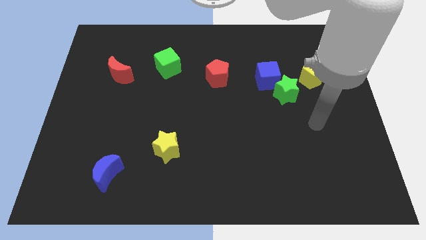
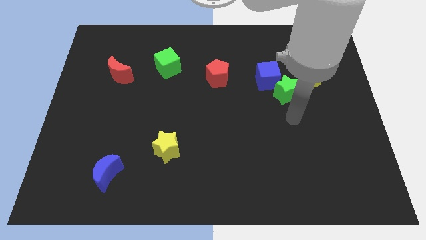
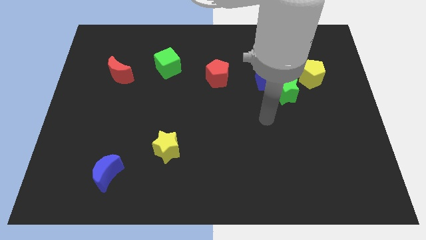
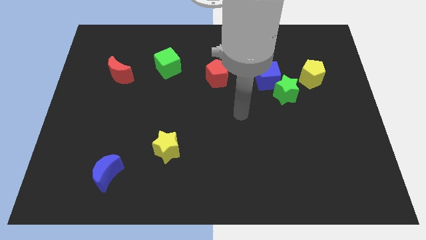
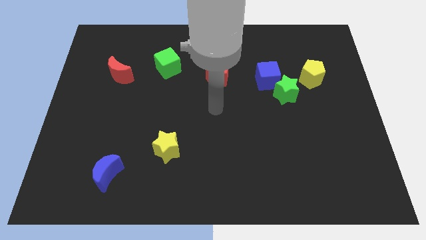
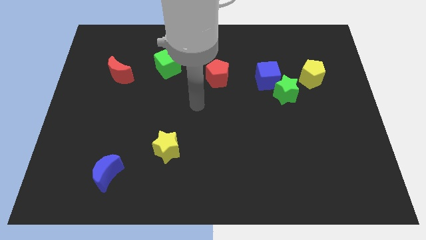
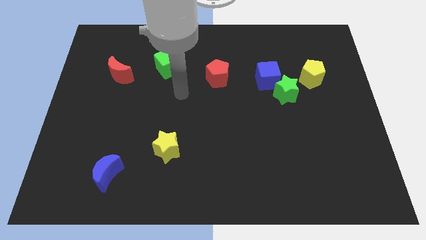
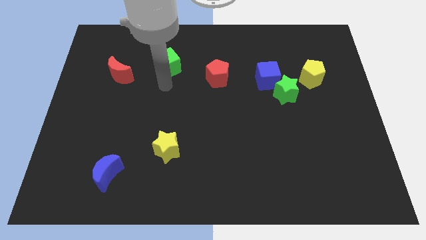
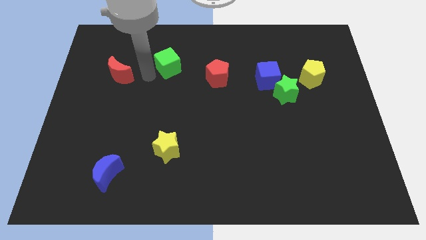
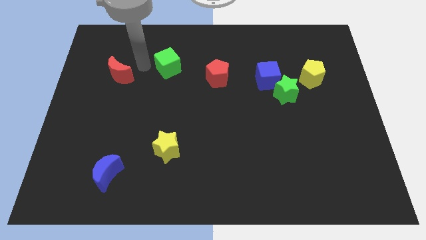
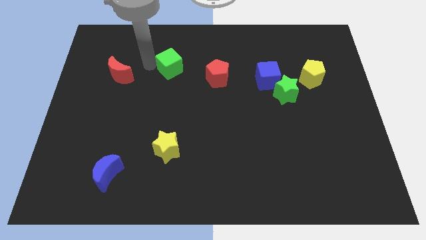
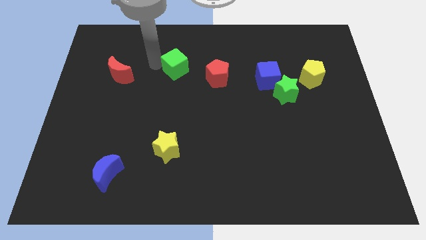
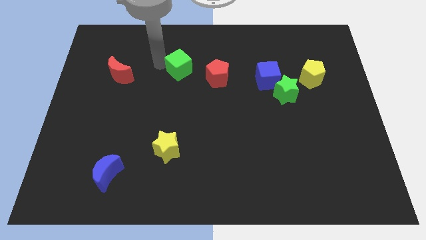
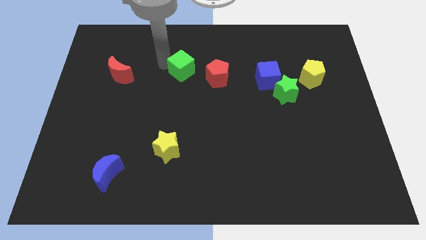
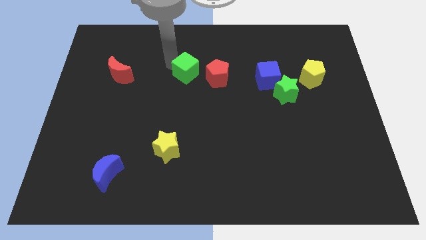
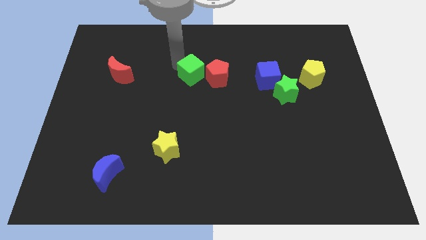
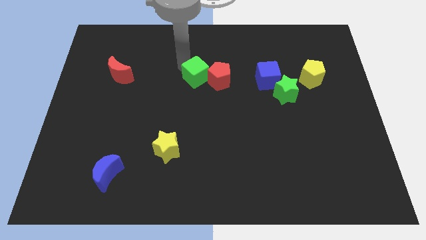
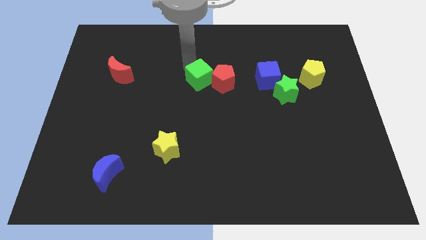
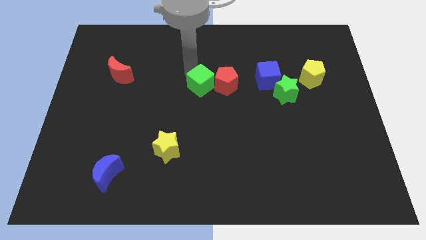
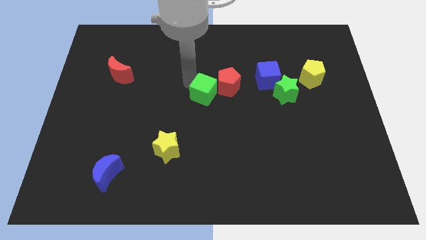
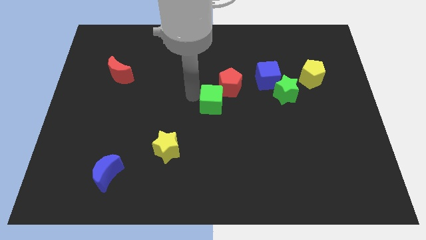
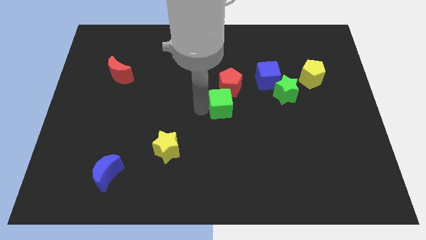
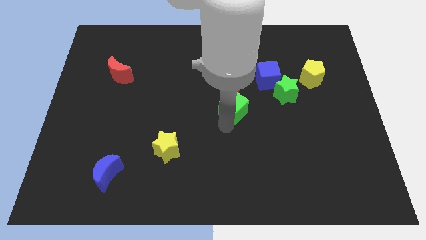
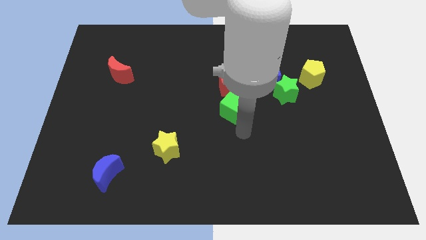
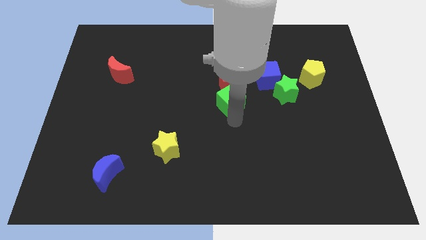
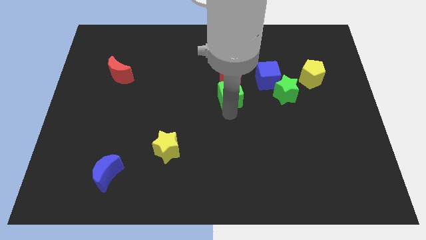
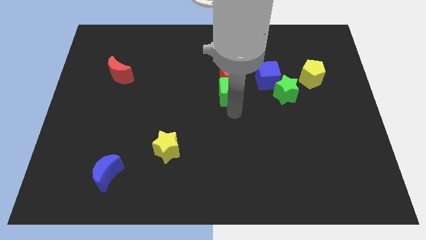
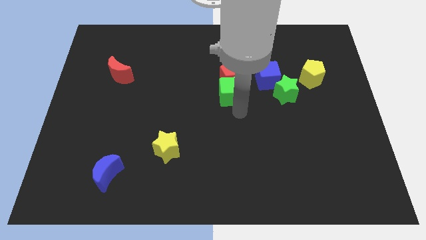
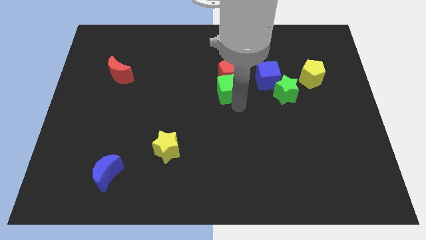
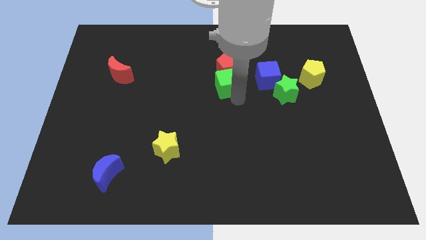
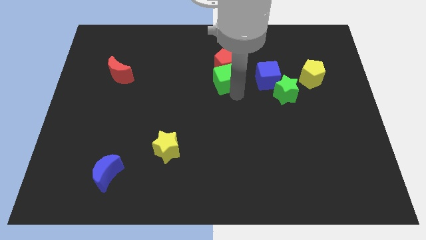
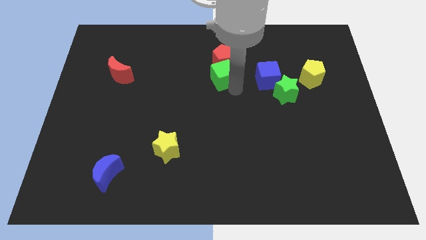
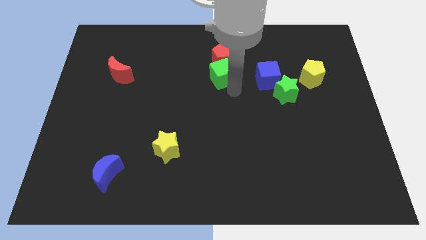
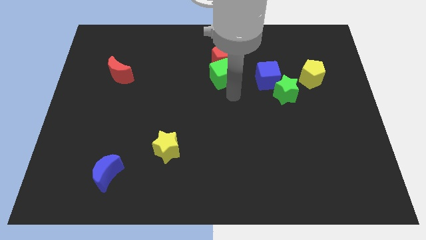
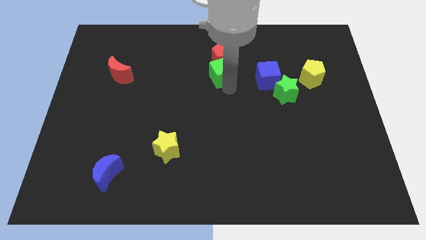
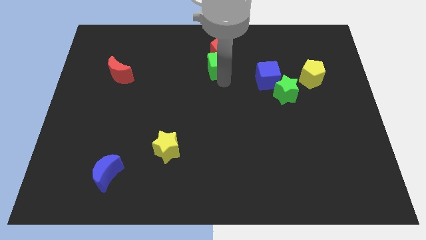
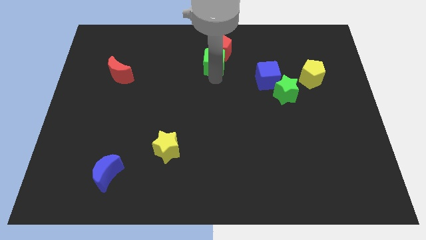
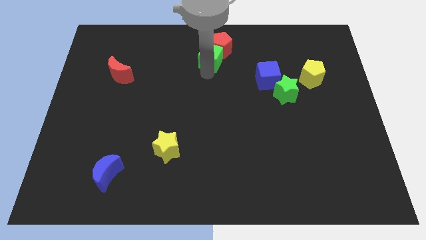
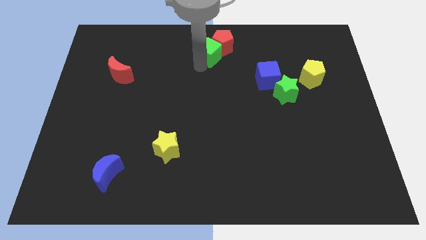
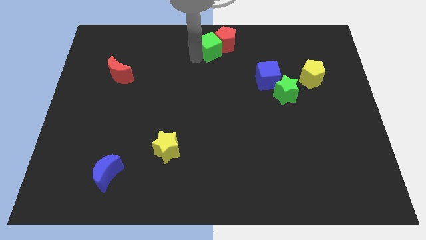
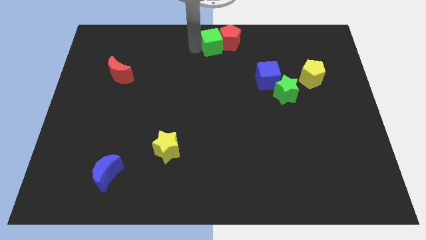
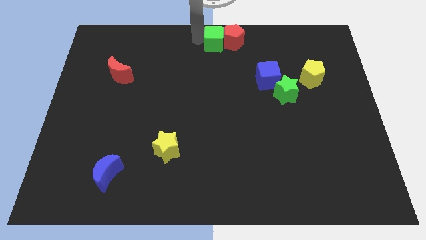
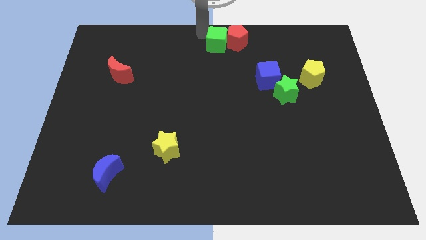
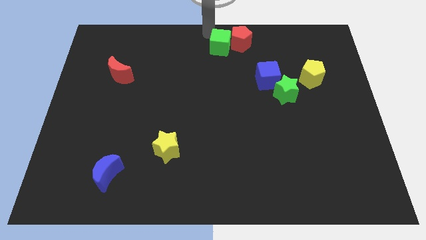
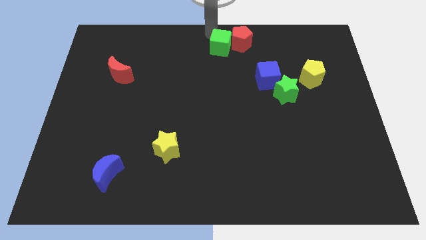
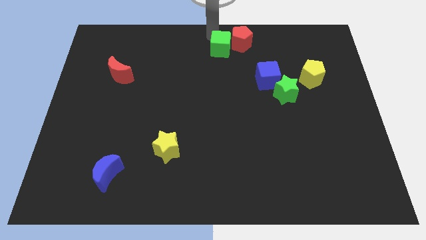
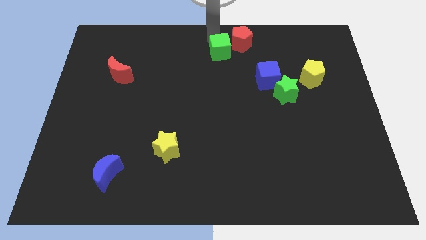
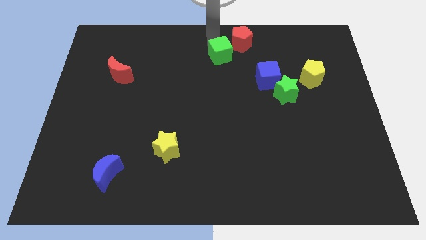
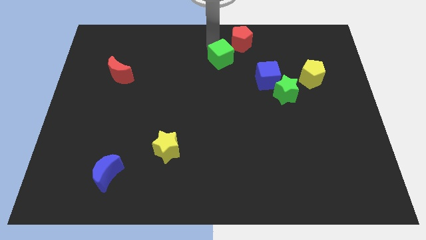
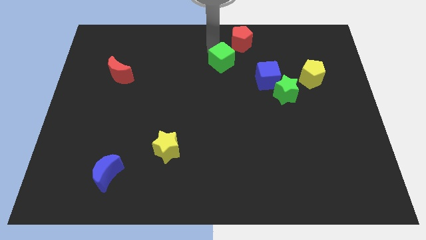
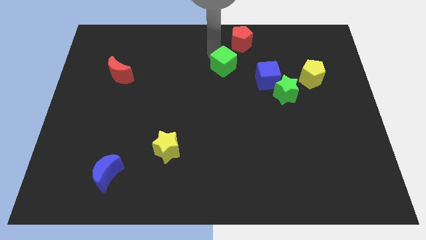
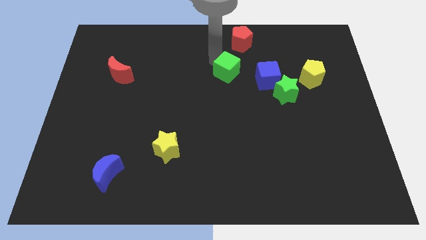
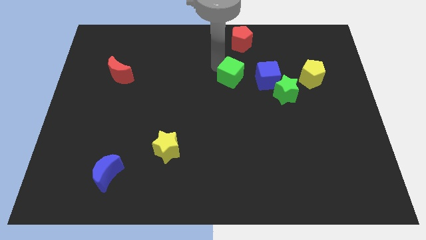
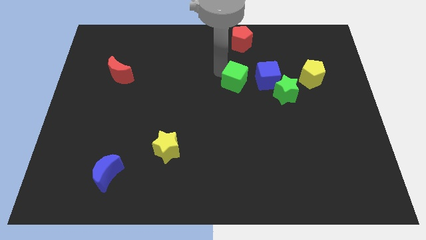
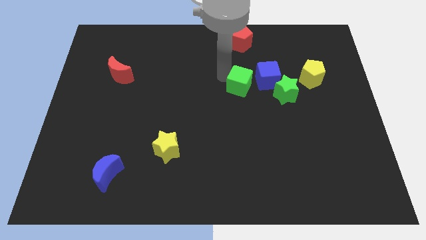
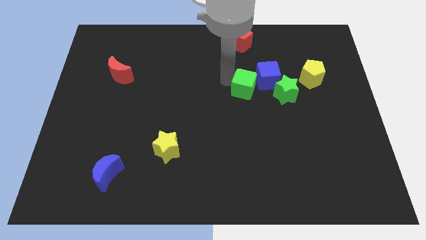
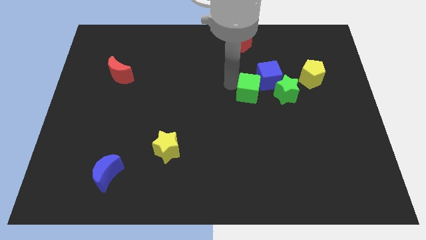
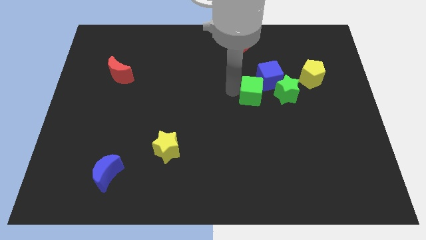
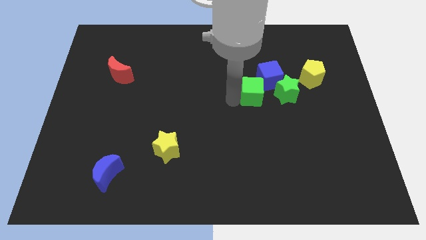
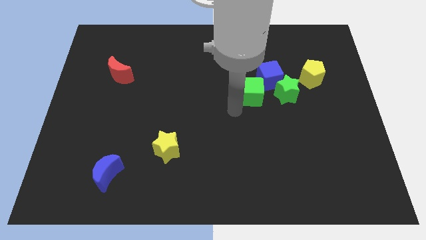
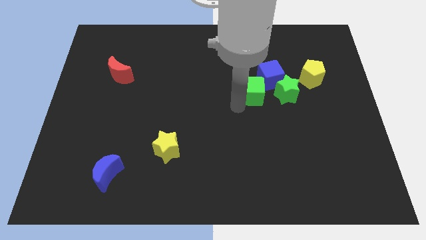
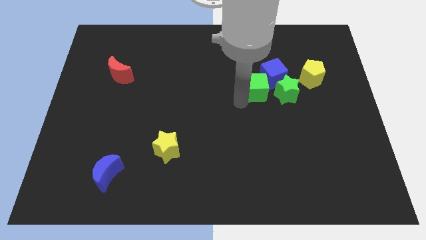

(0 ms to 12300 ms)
slide the green cube close to the blue cube

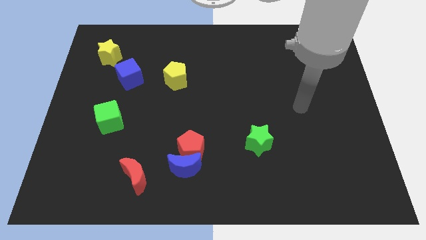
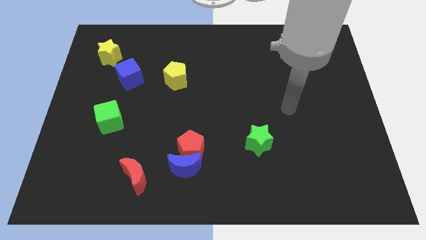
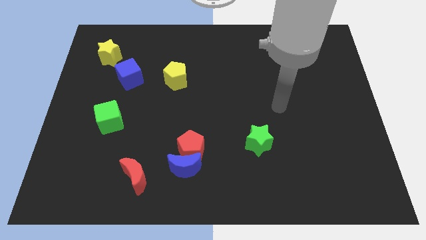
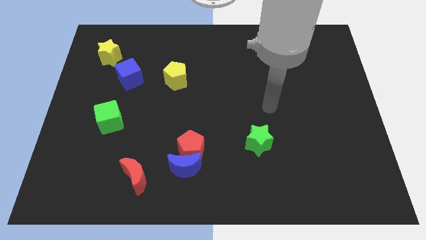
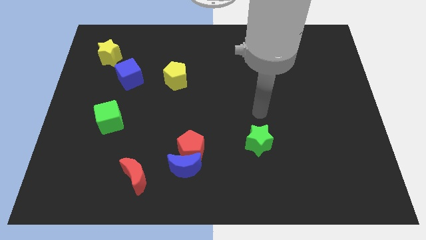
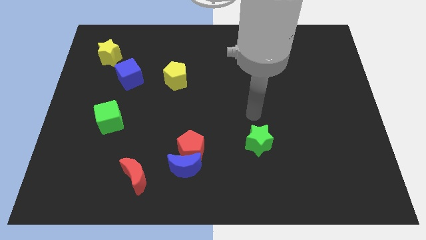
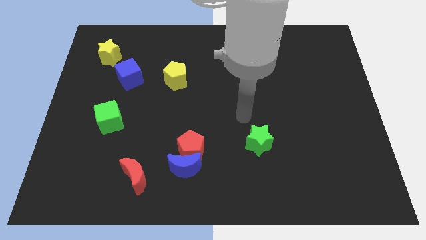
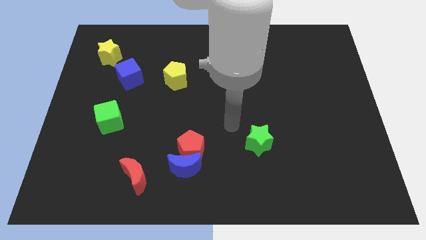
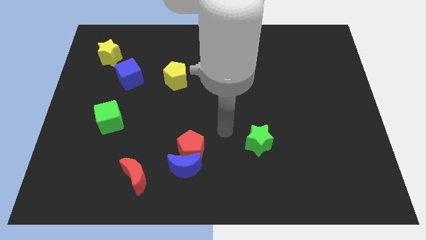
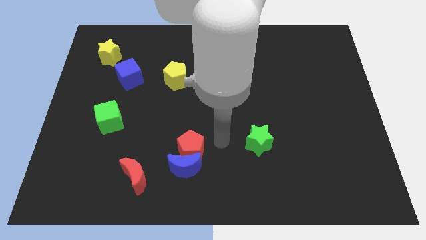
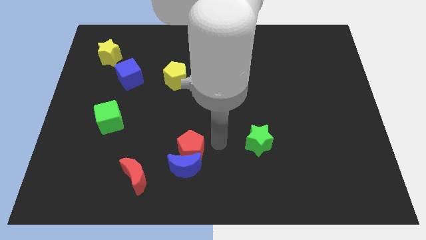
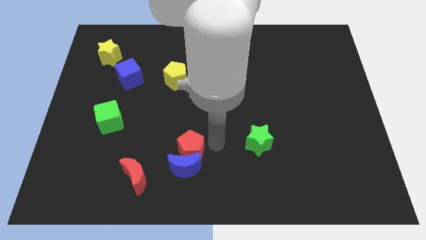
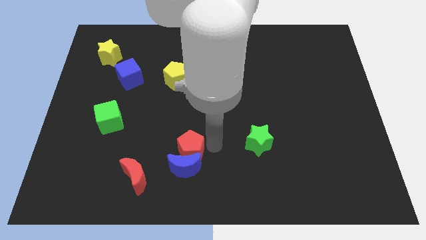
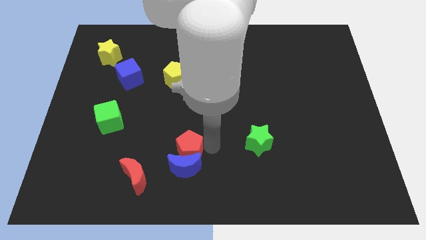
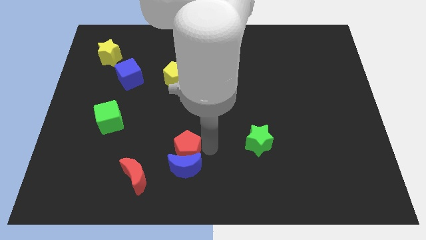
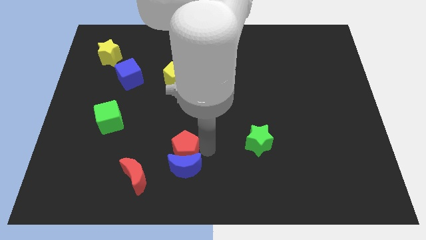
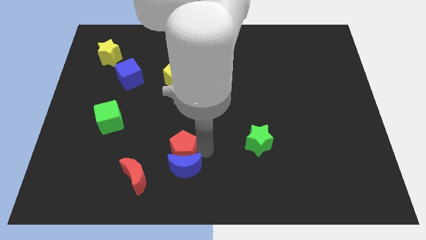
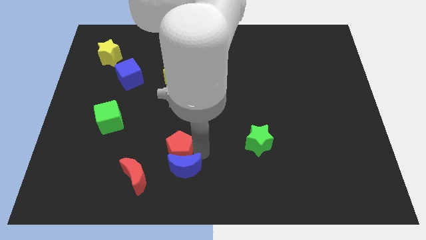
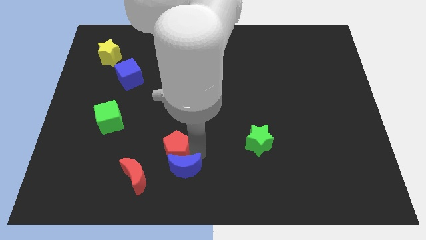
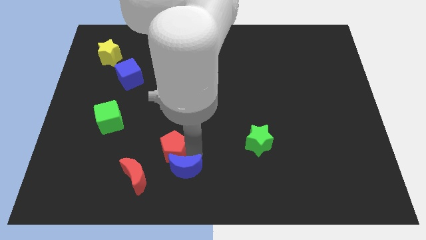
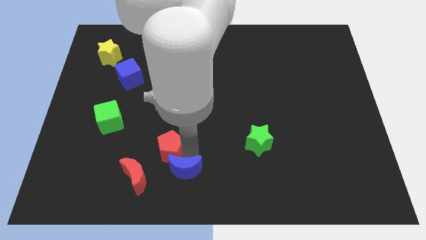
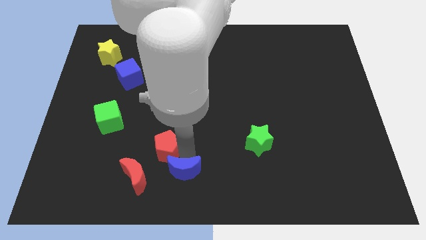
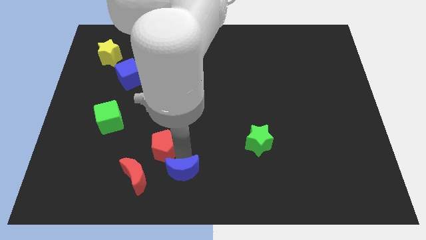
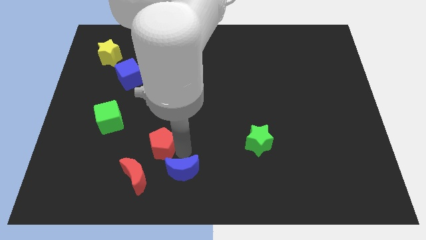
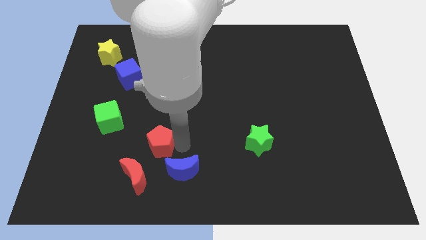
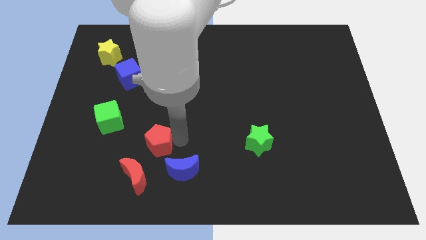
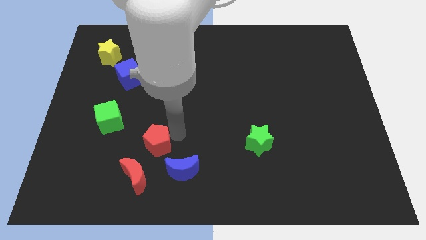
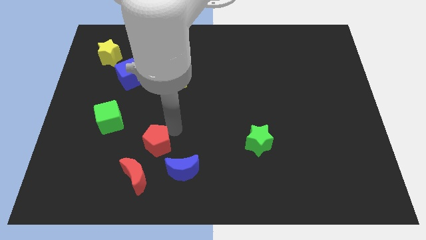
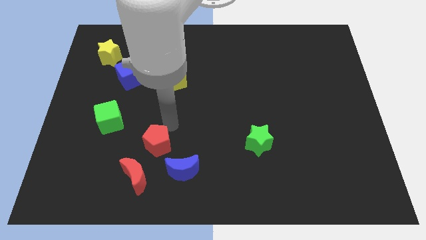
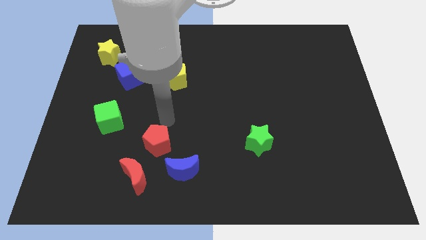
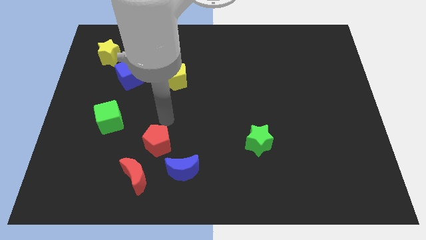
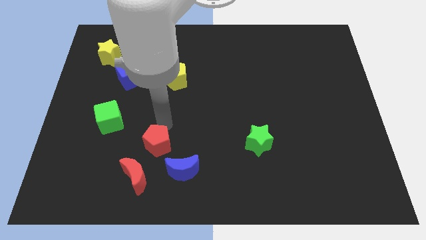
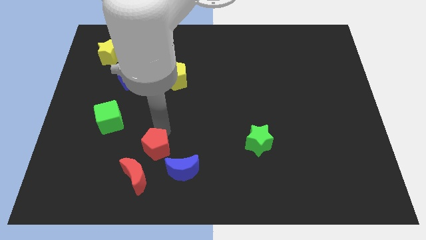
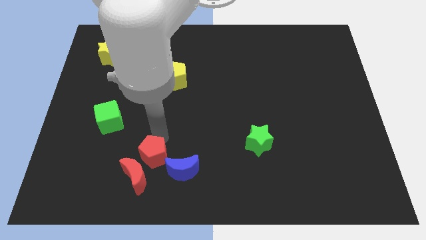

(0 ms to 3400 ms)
push the red pentagon towards the red moon
